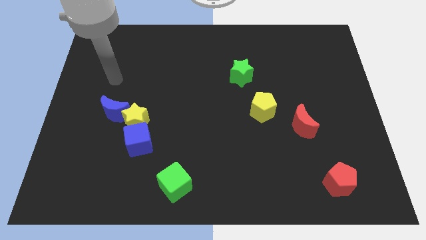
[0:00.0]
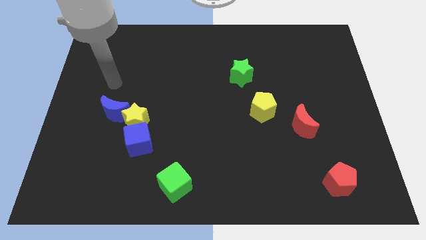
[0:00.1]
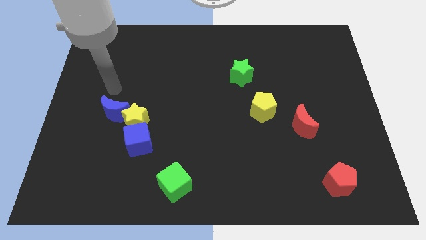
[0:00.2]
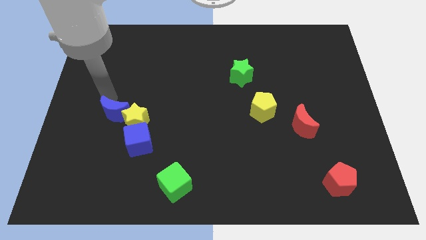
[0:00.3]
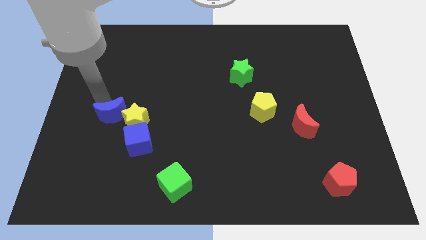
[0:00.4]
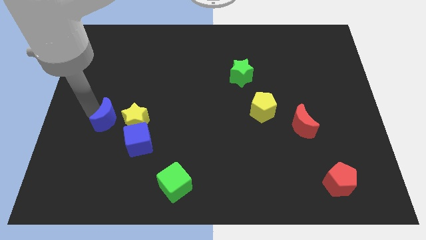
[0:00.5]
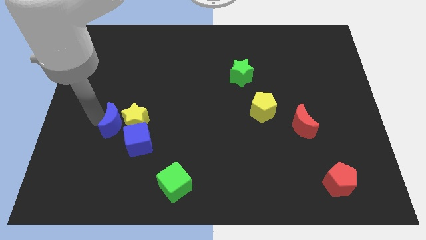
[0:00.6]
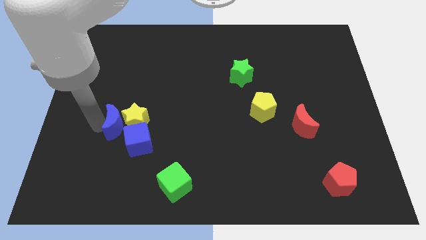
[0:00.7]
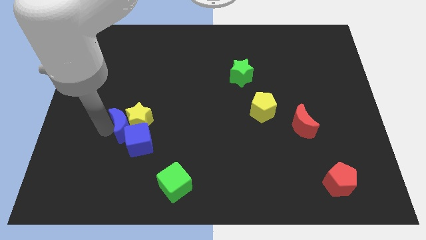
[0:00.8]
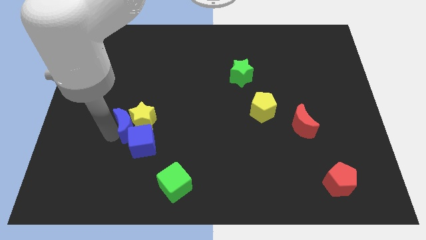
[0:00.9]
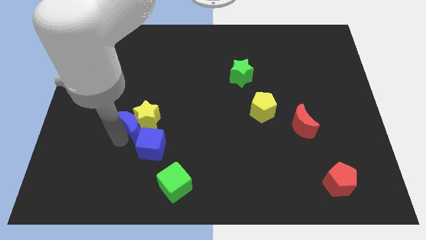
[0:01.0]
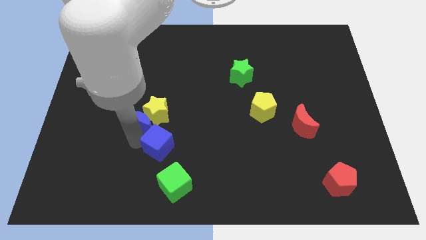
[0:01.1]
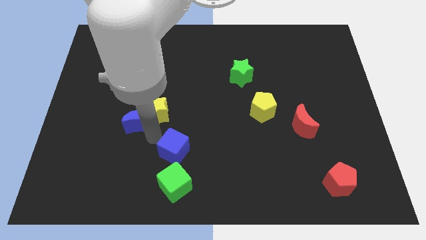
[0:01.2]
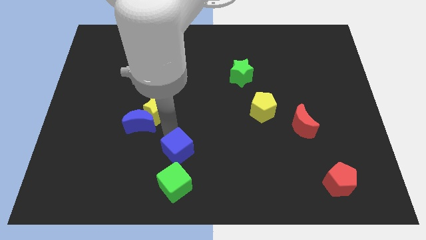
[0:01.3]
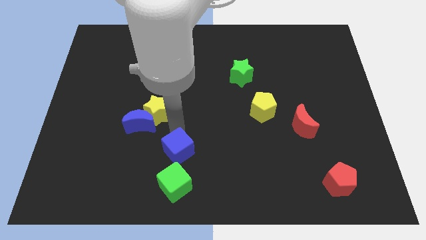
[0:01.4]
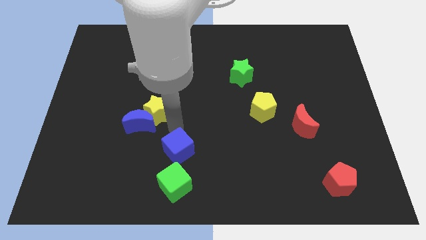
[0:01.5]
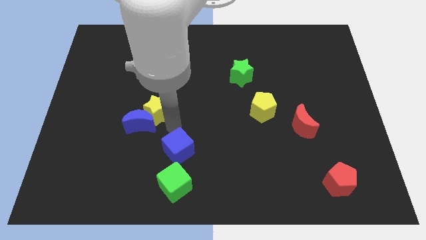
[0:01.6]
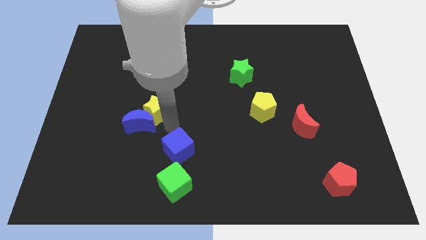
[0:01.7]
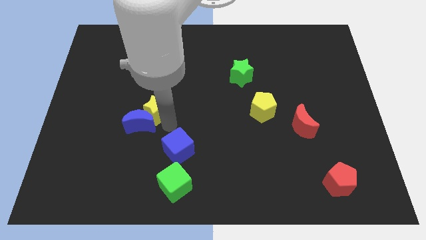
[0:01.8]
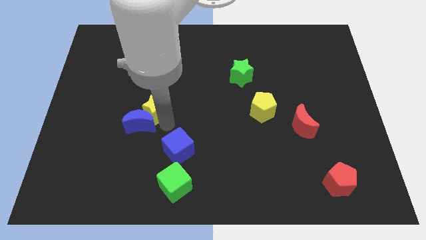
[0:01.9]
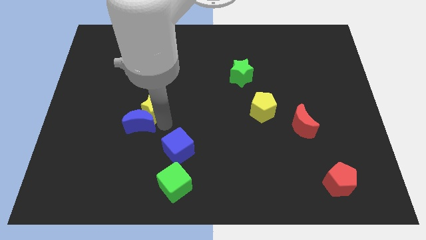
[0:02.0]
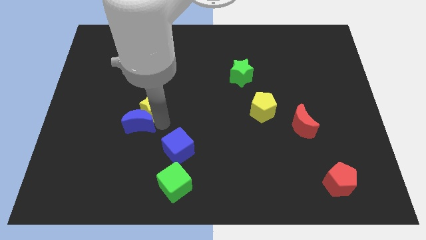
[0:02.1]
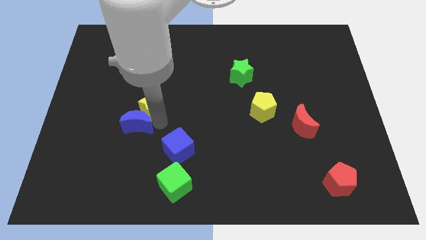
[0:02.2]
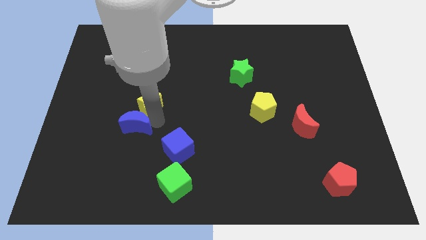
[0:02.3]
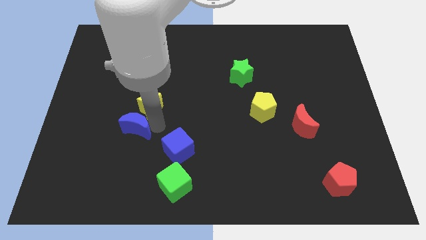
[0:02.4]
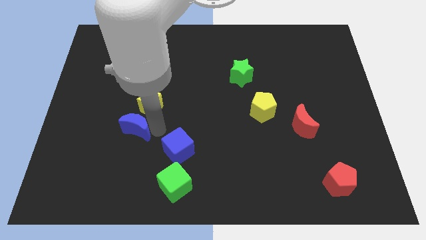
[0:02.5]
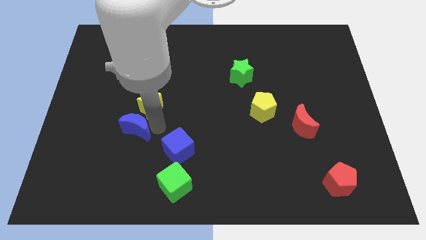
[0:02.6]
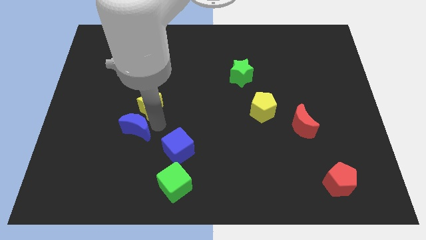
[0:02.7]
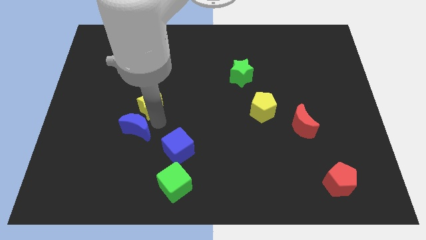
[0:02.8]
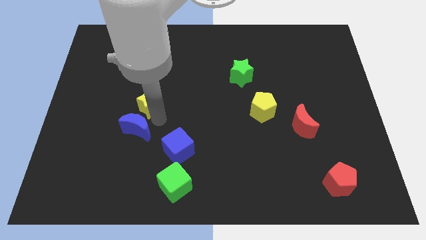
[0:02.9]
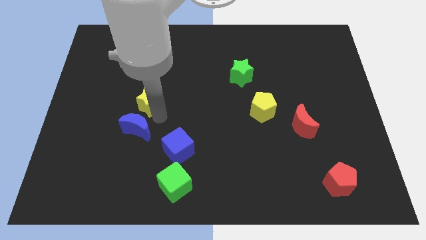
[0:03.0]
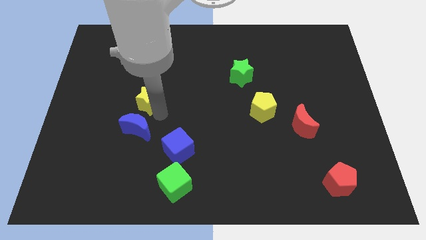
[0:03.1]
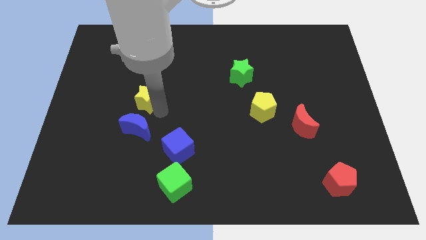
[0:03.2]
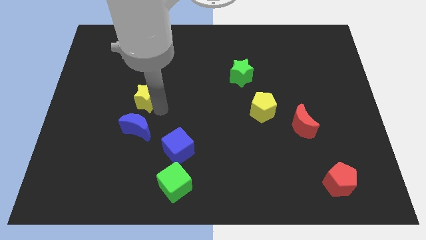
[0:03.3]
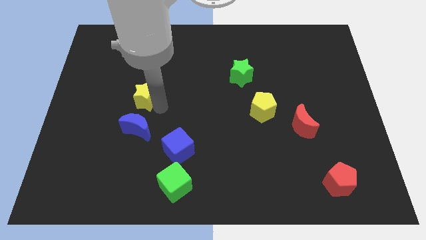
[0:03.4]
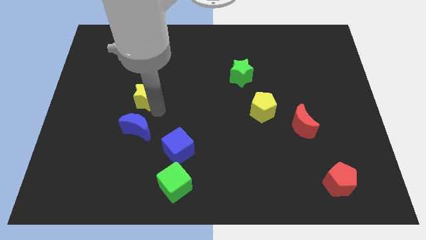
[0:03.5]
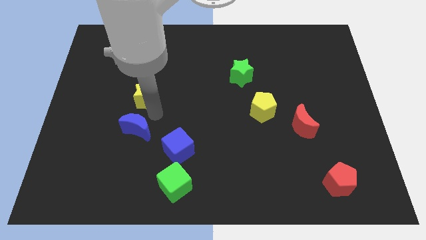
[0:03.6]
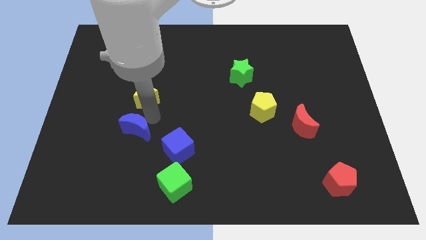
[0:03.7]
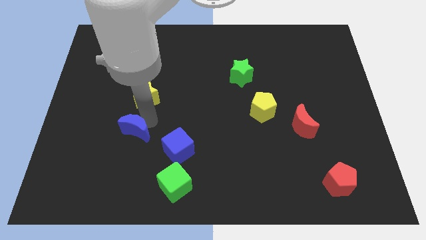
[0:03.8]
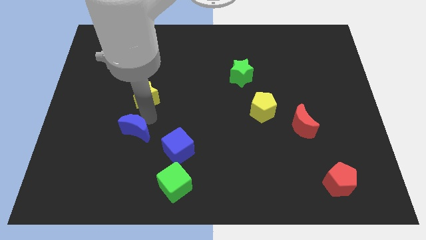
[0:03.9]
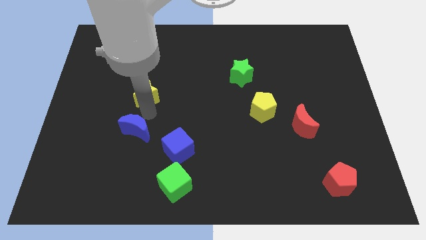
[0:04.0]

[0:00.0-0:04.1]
push the yellow star up somewhat

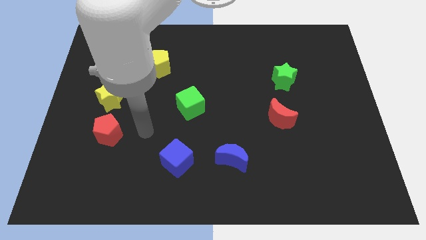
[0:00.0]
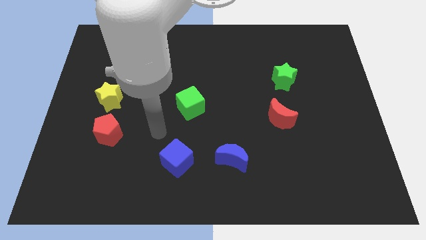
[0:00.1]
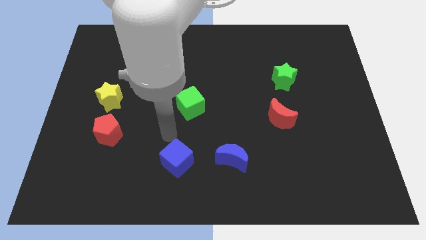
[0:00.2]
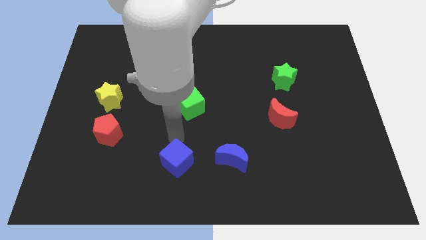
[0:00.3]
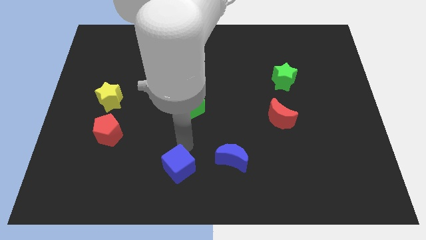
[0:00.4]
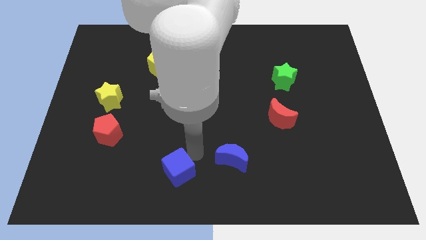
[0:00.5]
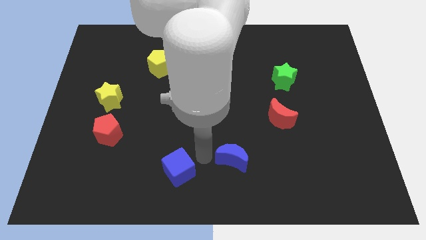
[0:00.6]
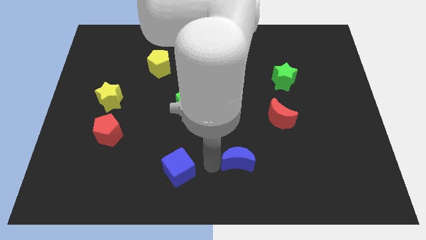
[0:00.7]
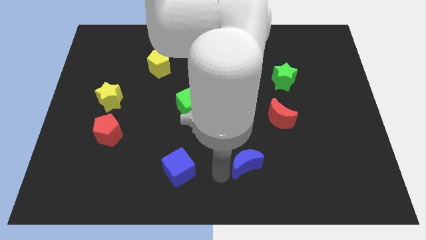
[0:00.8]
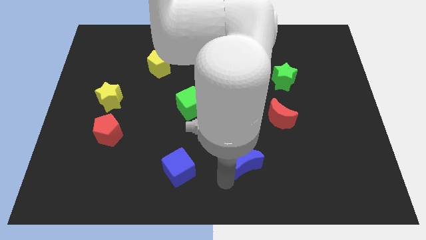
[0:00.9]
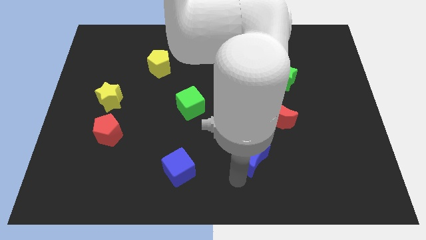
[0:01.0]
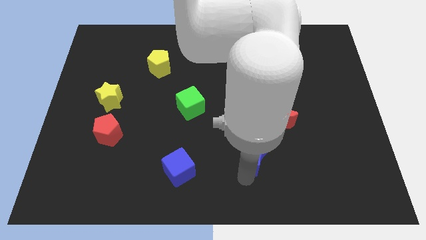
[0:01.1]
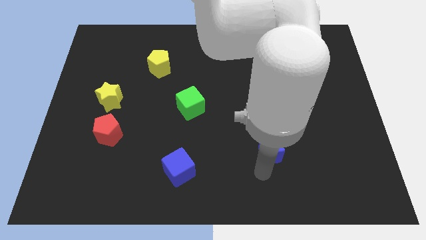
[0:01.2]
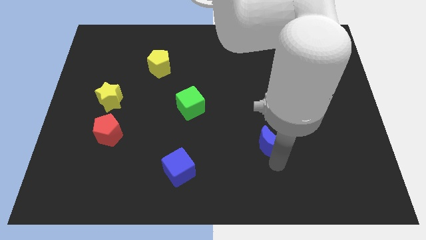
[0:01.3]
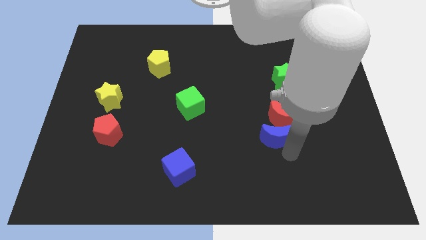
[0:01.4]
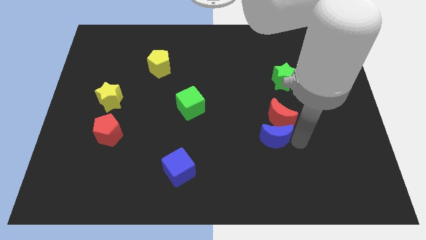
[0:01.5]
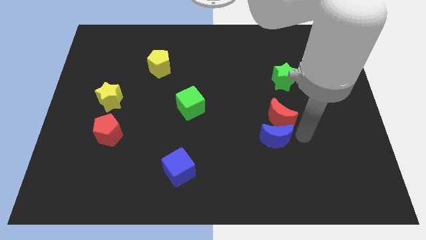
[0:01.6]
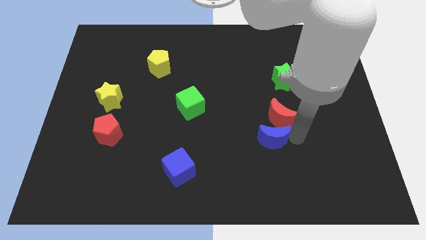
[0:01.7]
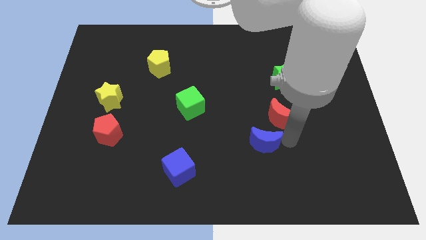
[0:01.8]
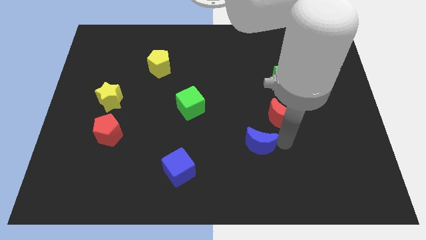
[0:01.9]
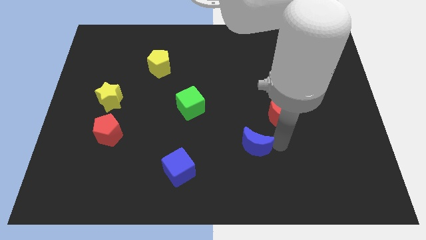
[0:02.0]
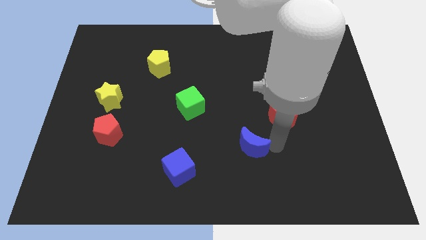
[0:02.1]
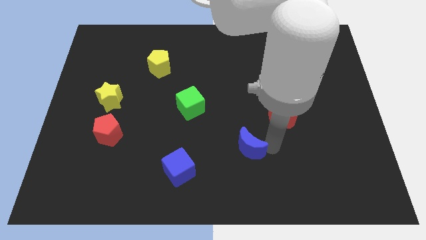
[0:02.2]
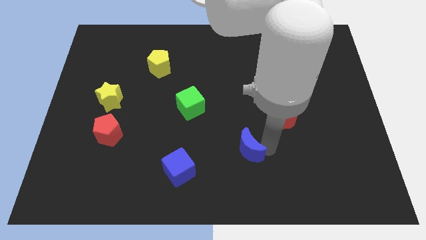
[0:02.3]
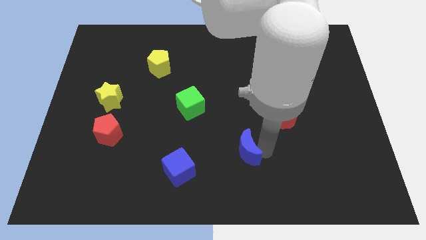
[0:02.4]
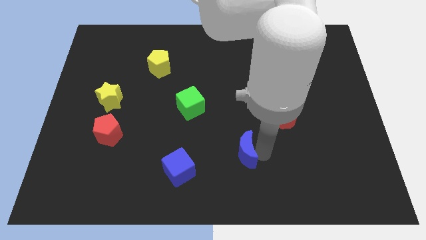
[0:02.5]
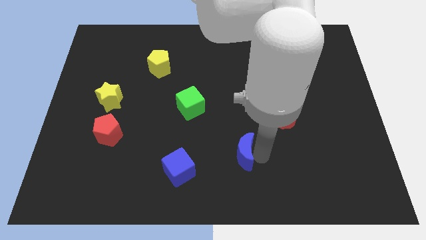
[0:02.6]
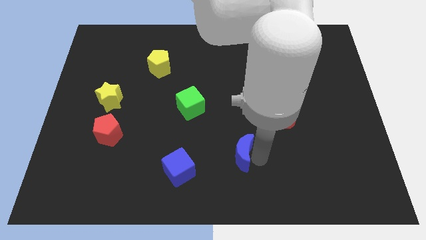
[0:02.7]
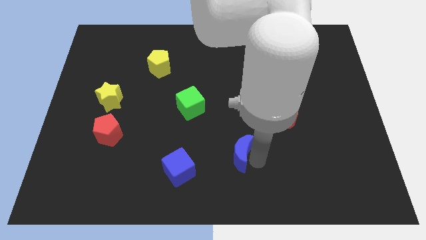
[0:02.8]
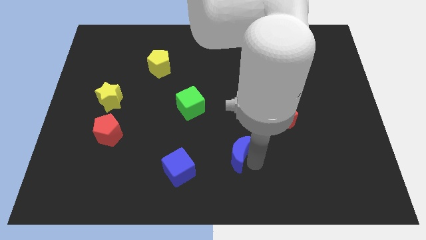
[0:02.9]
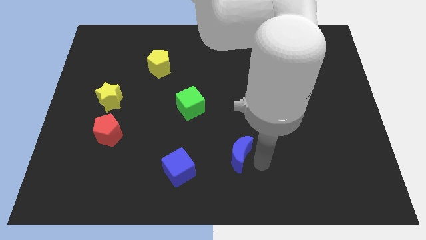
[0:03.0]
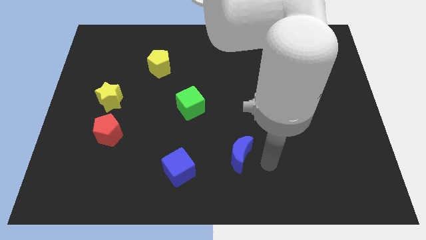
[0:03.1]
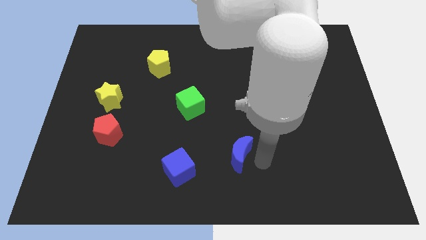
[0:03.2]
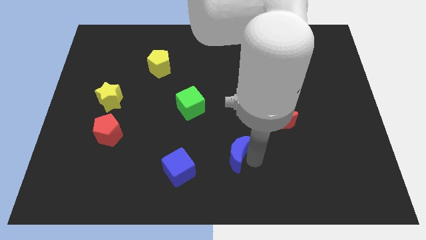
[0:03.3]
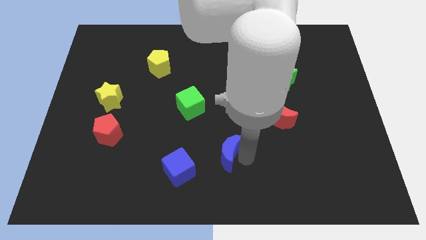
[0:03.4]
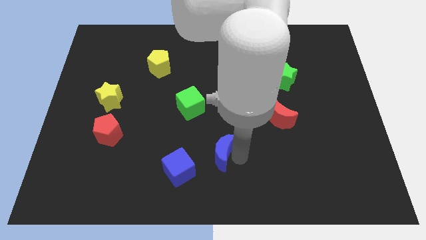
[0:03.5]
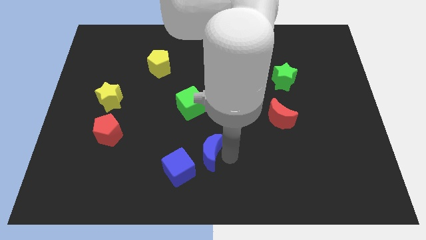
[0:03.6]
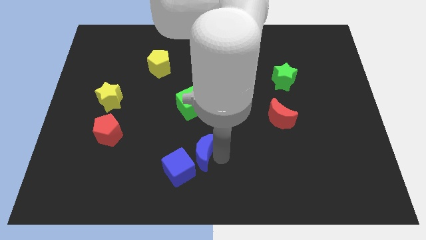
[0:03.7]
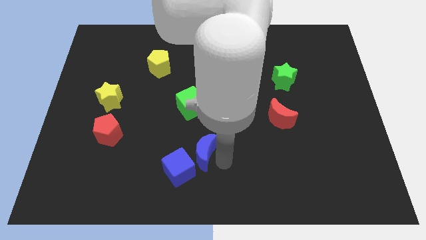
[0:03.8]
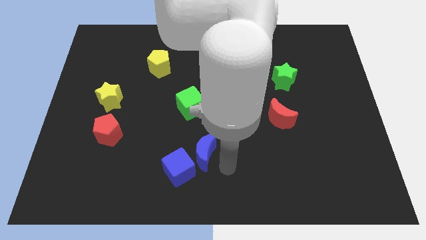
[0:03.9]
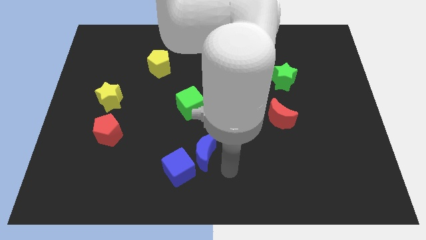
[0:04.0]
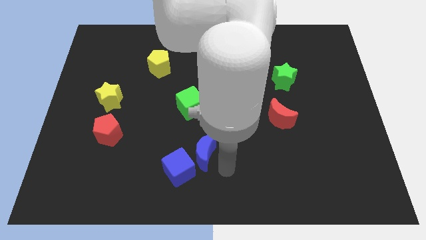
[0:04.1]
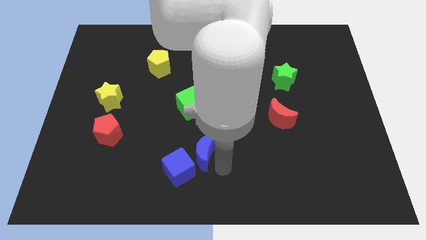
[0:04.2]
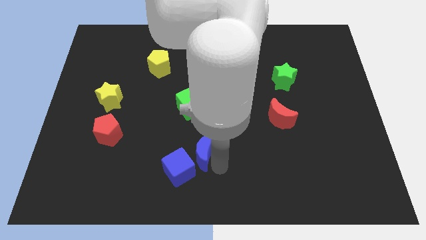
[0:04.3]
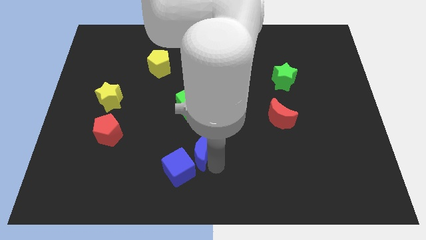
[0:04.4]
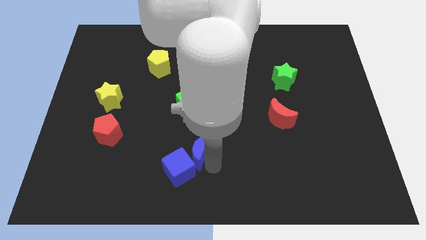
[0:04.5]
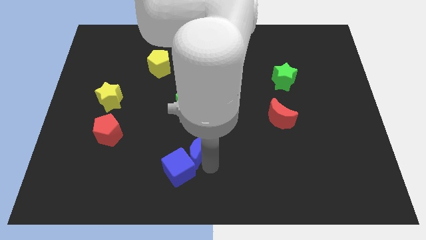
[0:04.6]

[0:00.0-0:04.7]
slide the blue moon slightly left
